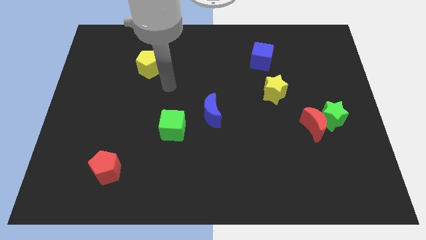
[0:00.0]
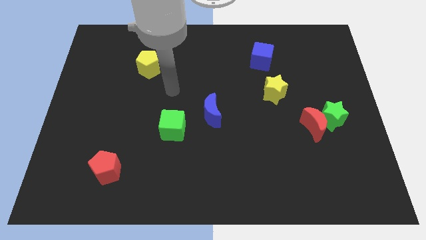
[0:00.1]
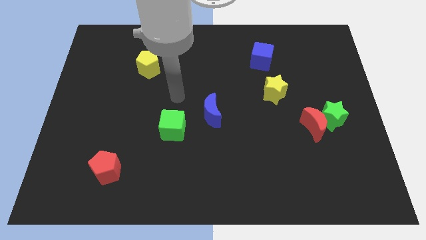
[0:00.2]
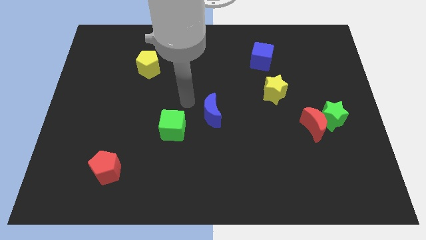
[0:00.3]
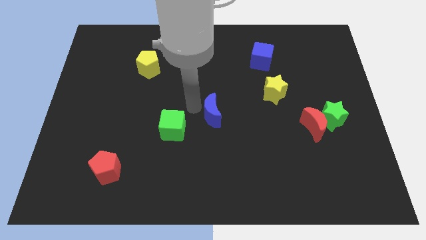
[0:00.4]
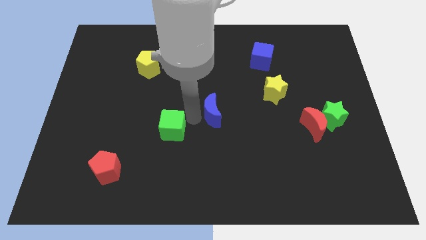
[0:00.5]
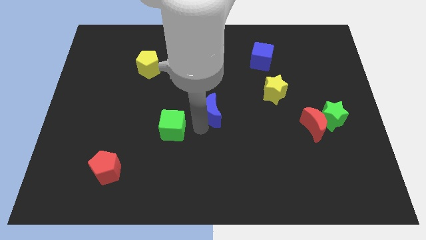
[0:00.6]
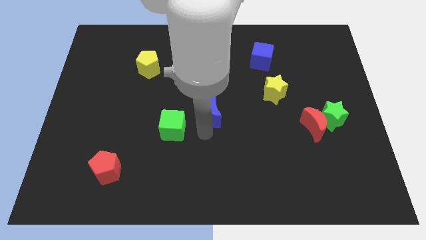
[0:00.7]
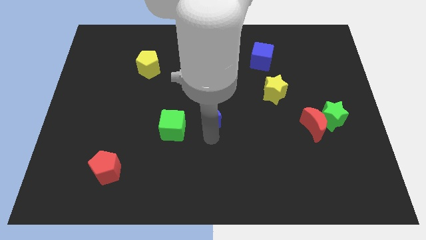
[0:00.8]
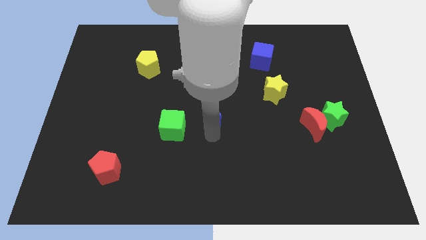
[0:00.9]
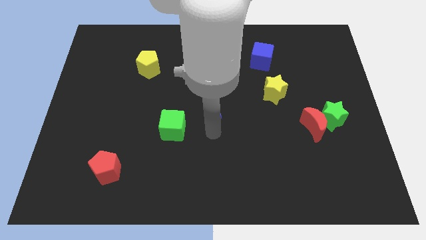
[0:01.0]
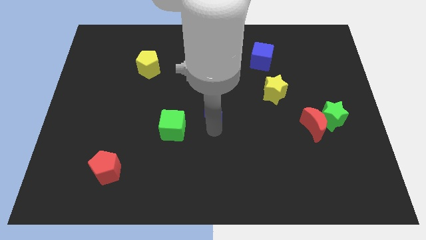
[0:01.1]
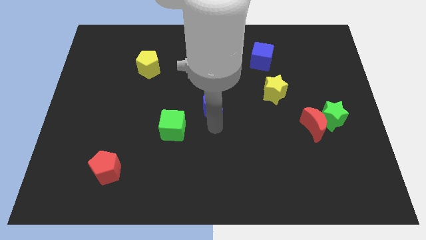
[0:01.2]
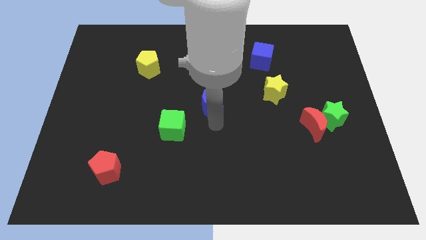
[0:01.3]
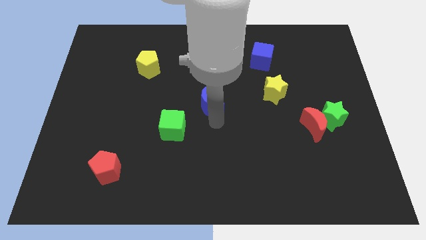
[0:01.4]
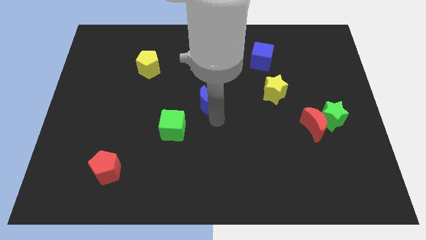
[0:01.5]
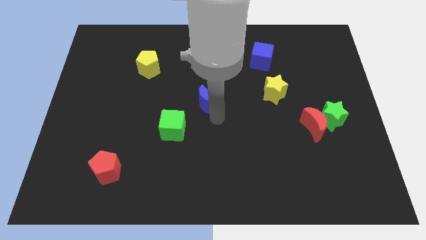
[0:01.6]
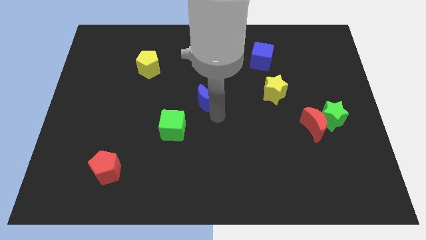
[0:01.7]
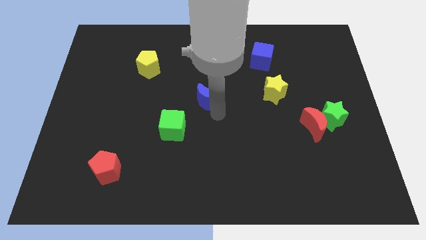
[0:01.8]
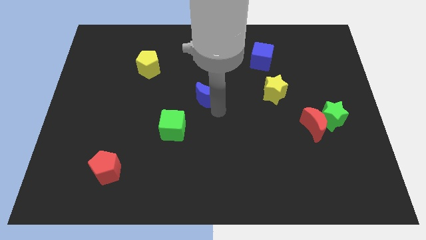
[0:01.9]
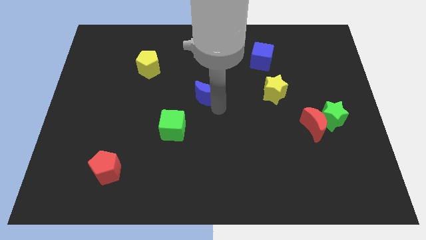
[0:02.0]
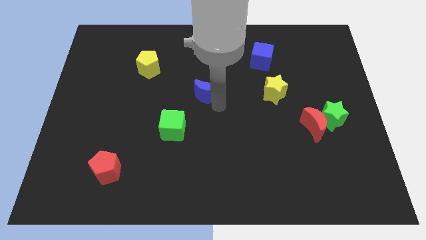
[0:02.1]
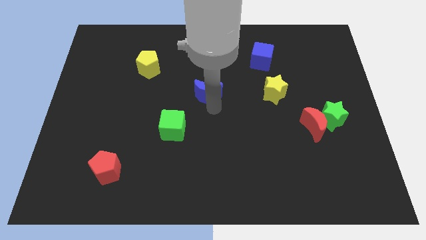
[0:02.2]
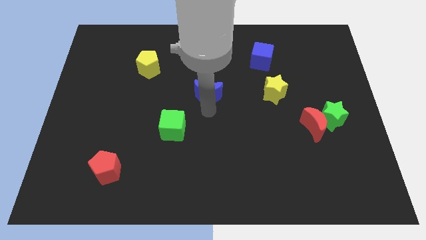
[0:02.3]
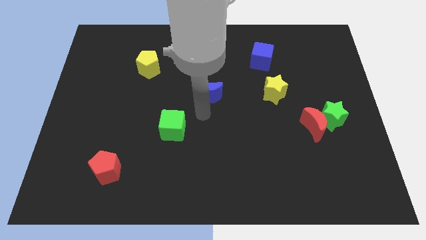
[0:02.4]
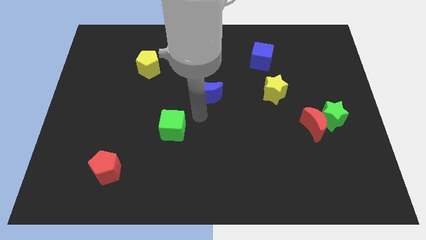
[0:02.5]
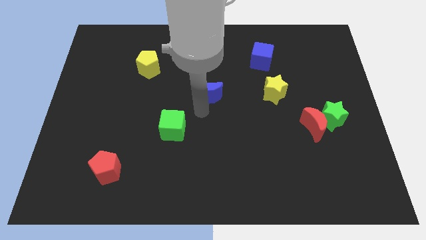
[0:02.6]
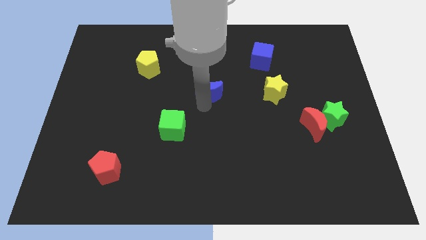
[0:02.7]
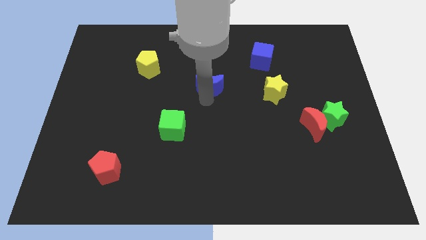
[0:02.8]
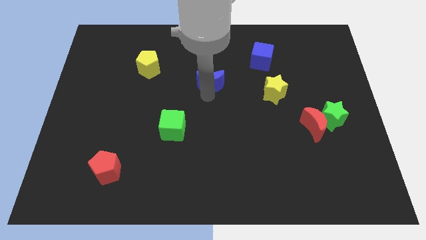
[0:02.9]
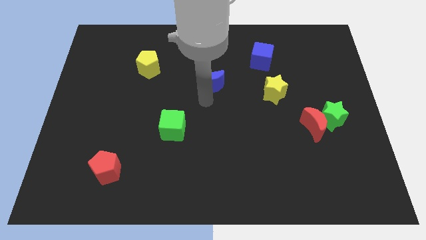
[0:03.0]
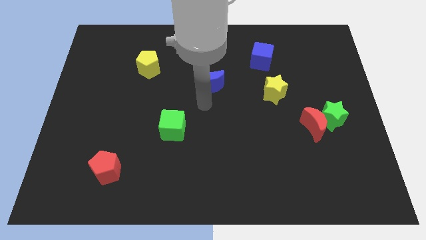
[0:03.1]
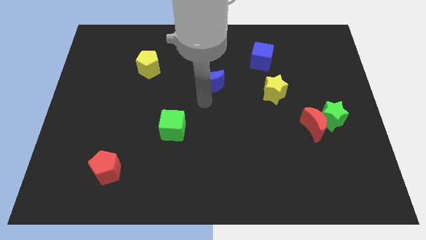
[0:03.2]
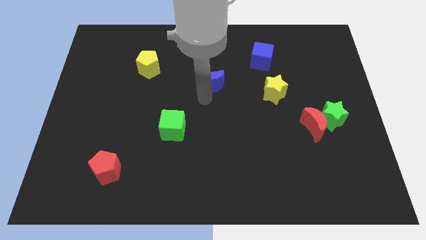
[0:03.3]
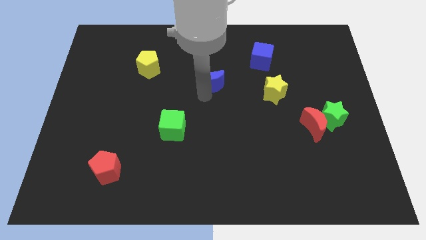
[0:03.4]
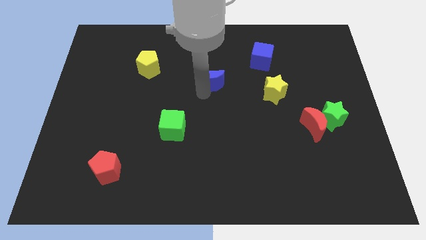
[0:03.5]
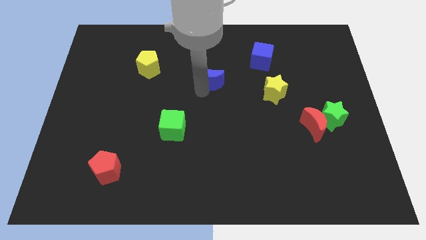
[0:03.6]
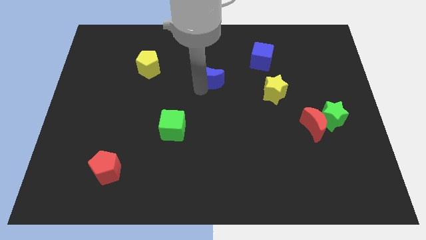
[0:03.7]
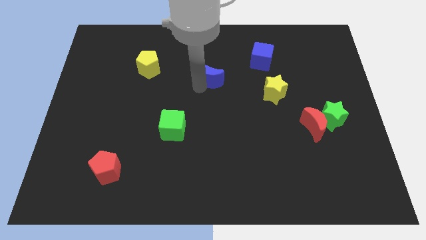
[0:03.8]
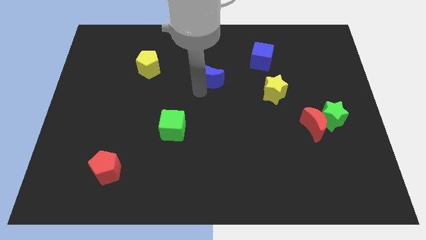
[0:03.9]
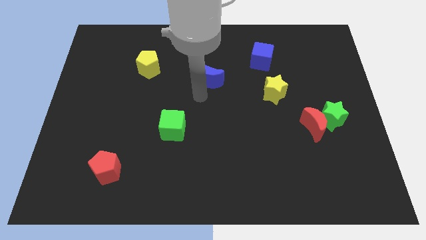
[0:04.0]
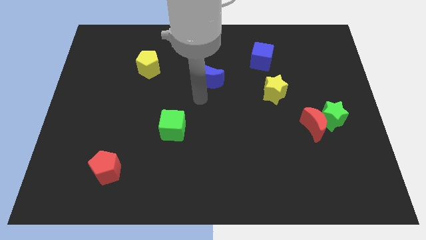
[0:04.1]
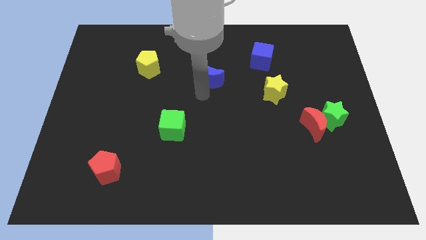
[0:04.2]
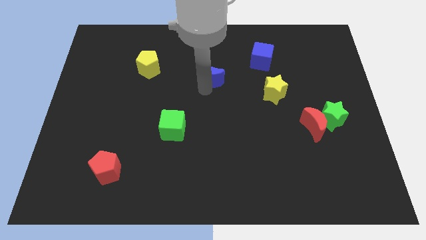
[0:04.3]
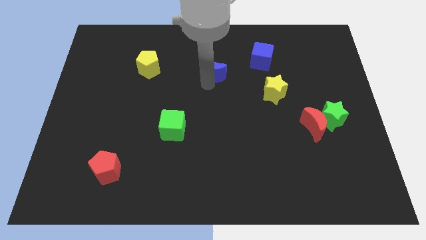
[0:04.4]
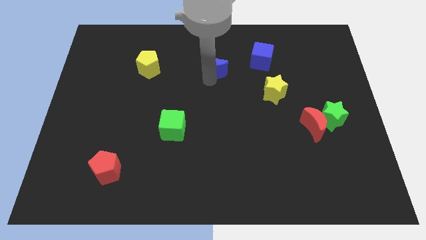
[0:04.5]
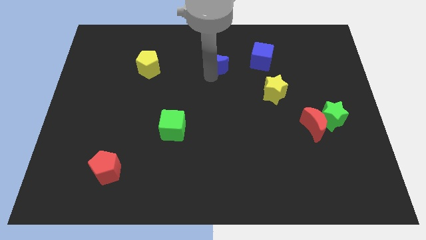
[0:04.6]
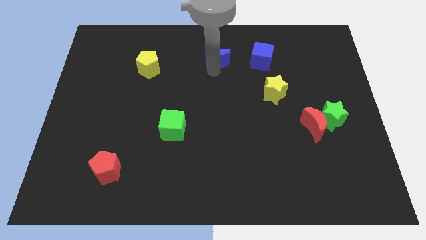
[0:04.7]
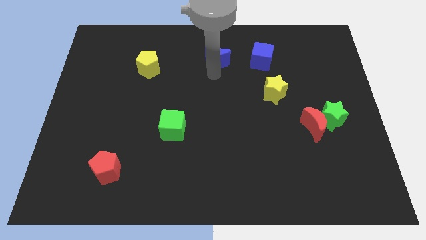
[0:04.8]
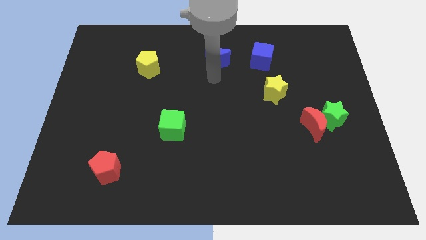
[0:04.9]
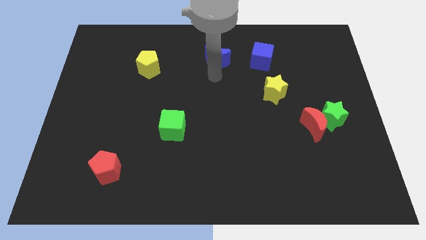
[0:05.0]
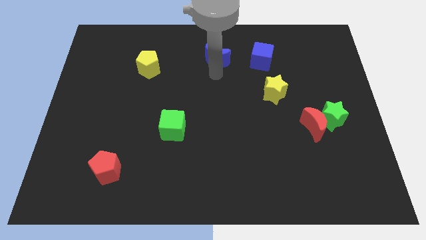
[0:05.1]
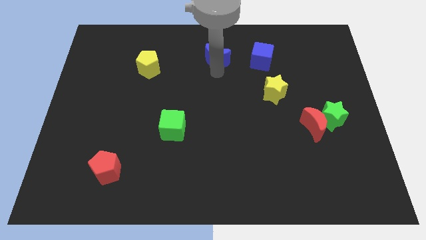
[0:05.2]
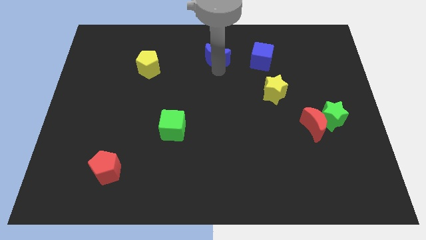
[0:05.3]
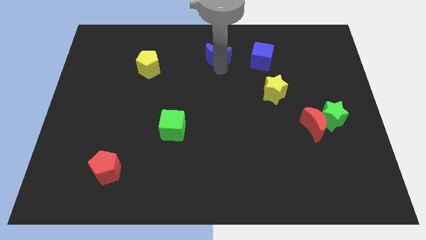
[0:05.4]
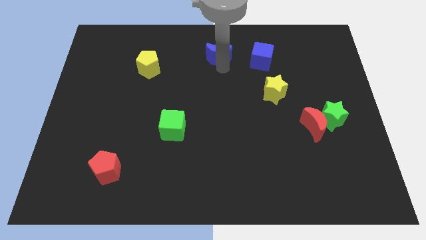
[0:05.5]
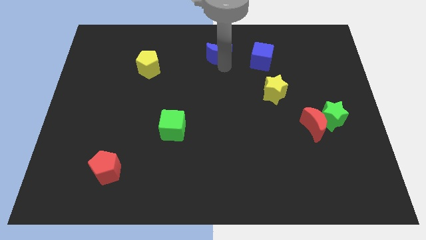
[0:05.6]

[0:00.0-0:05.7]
push the blue moon to the towards your base

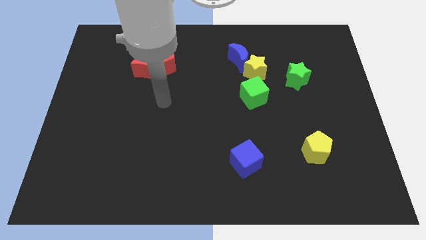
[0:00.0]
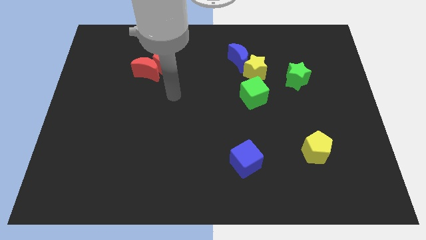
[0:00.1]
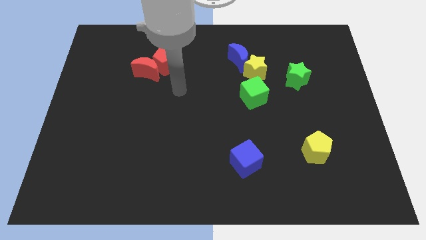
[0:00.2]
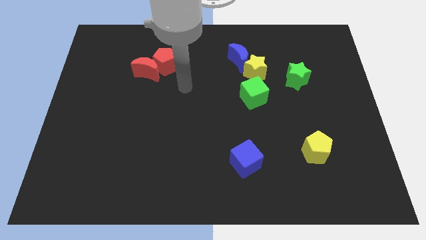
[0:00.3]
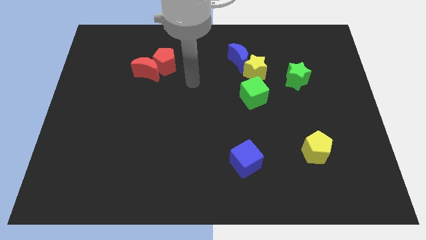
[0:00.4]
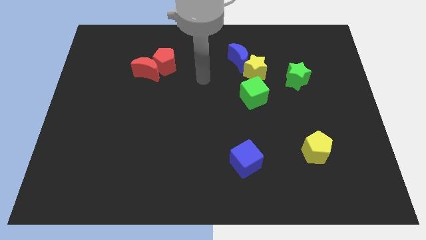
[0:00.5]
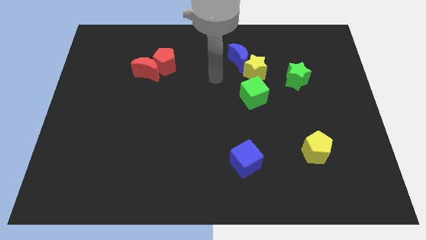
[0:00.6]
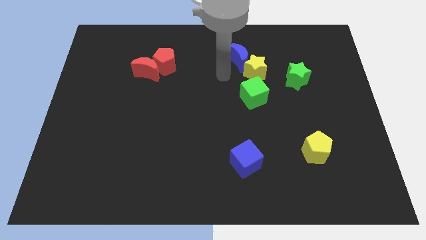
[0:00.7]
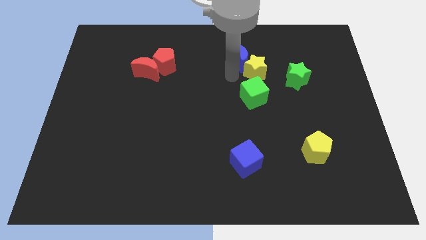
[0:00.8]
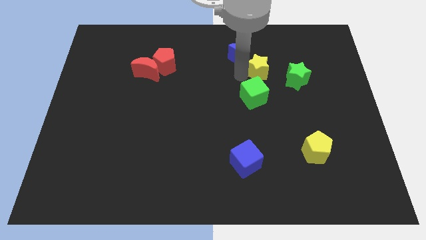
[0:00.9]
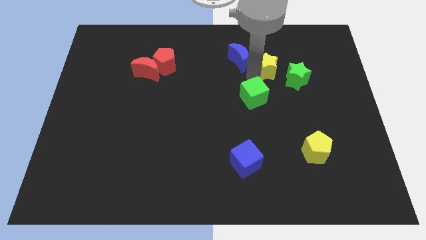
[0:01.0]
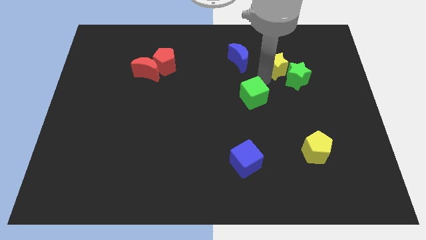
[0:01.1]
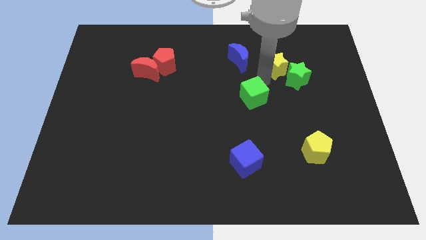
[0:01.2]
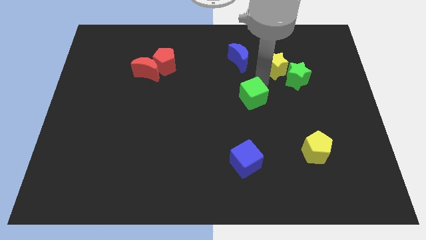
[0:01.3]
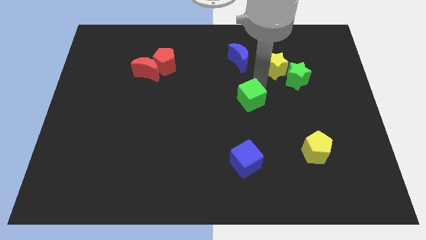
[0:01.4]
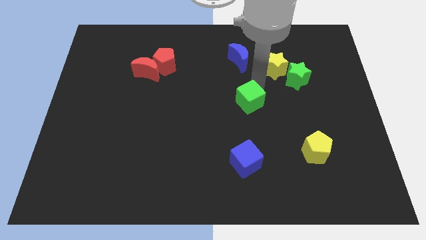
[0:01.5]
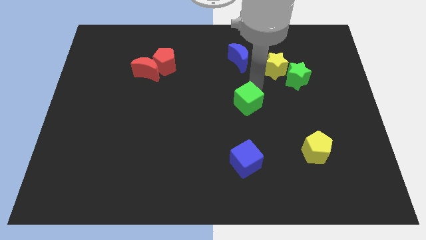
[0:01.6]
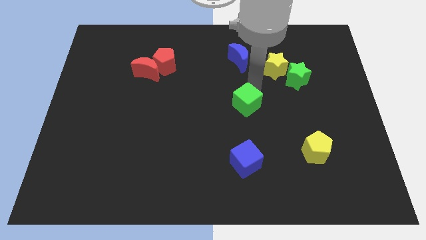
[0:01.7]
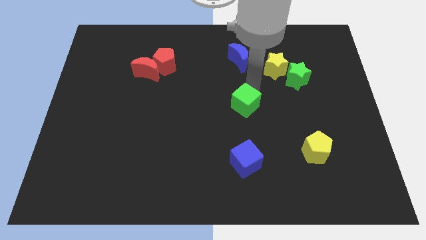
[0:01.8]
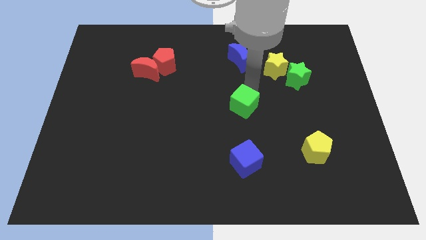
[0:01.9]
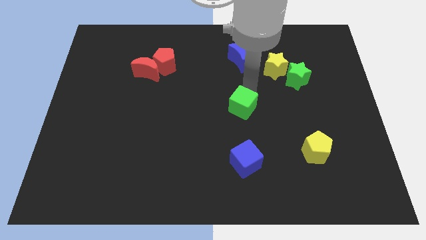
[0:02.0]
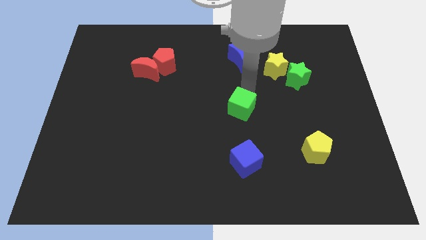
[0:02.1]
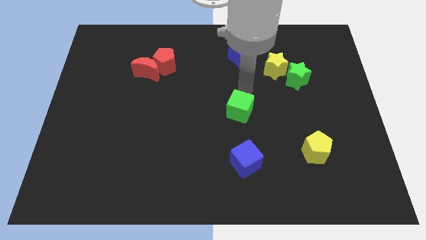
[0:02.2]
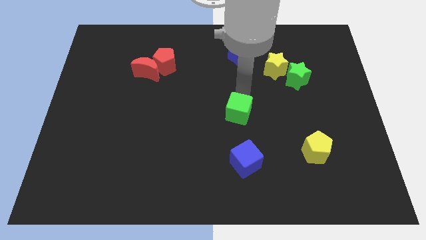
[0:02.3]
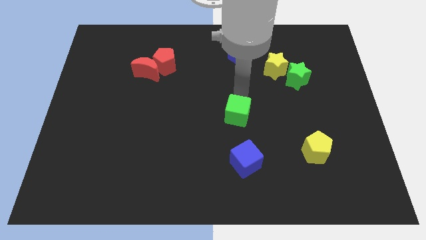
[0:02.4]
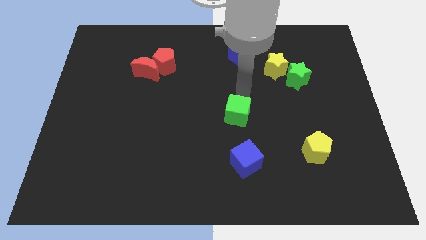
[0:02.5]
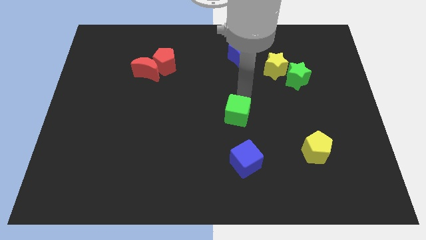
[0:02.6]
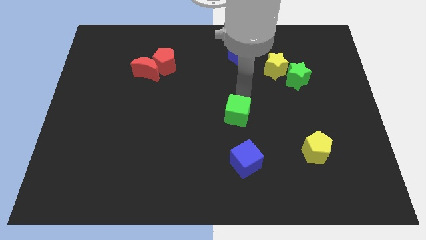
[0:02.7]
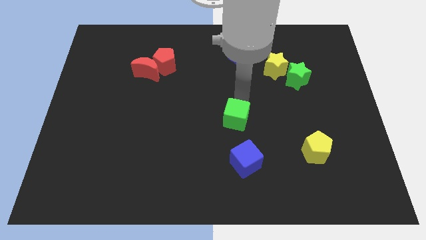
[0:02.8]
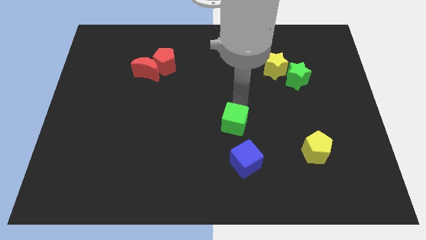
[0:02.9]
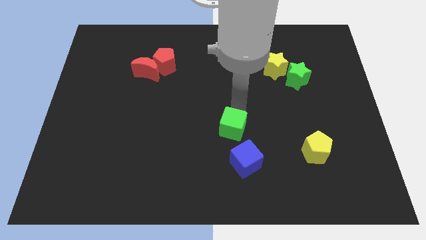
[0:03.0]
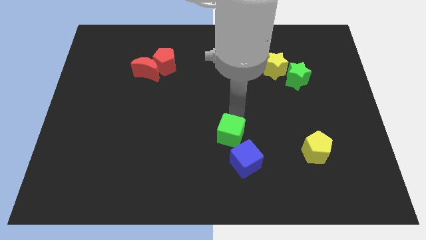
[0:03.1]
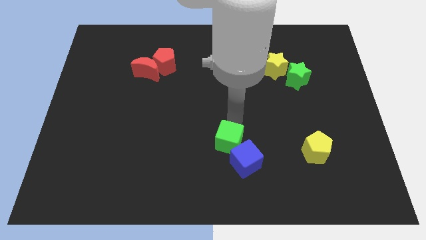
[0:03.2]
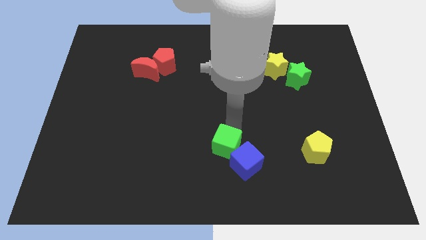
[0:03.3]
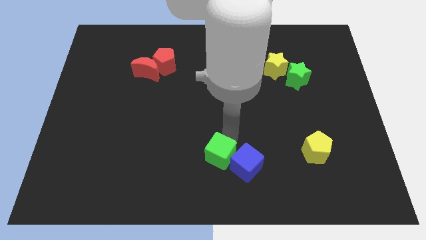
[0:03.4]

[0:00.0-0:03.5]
slide the green cube to the bottom
